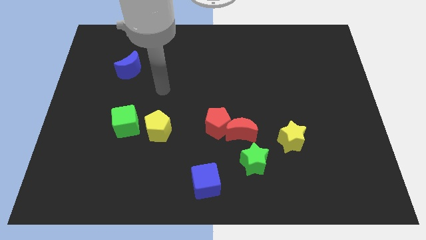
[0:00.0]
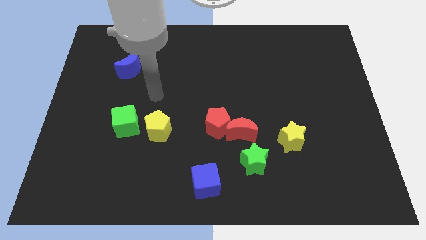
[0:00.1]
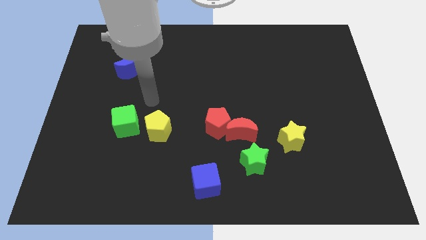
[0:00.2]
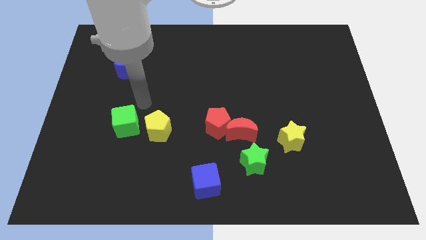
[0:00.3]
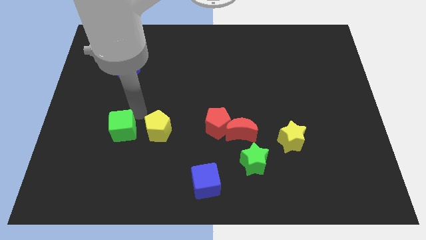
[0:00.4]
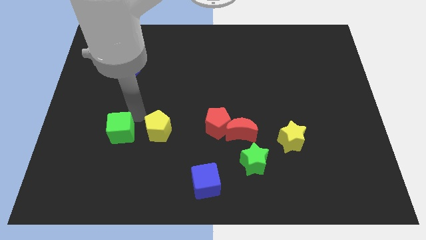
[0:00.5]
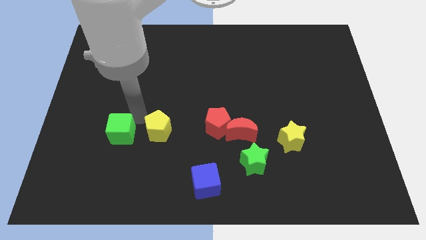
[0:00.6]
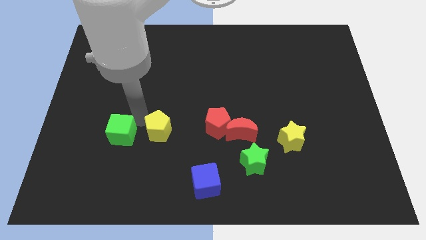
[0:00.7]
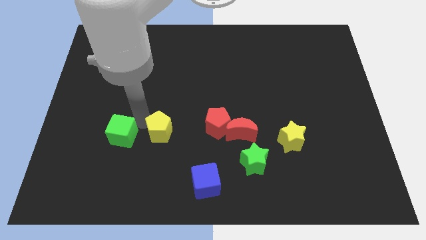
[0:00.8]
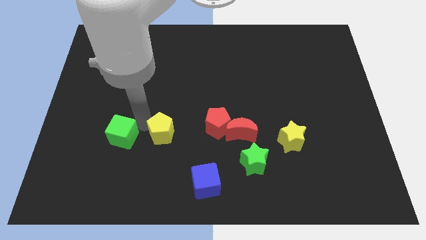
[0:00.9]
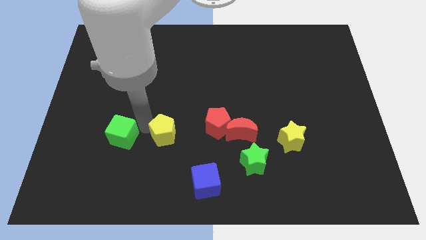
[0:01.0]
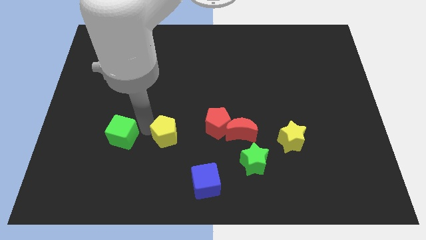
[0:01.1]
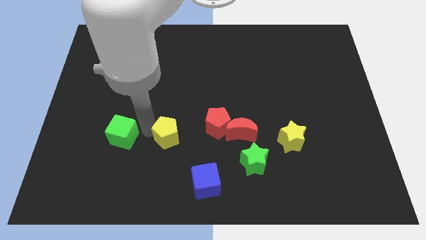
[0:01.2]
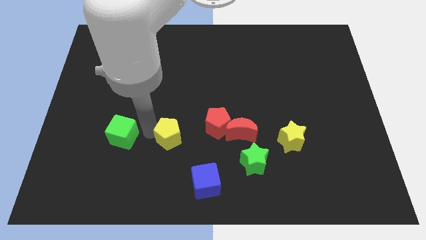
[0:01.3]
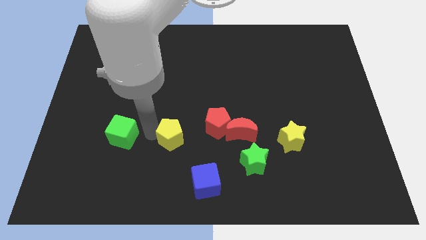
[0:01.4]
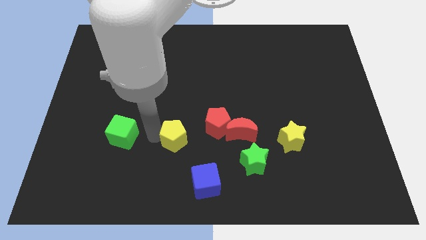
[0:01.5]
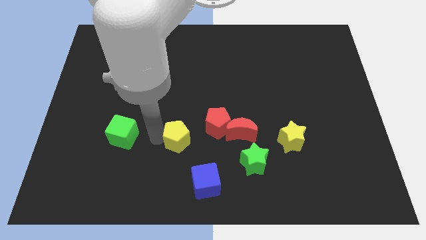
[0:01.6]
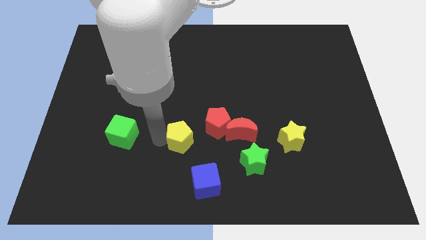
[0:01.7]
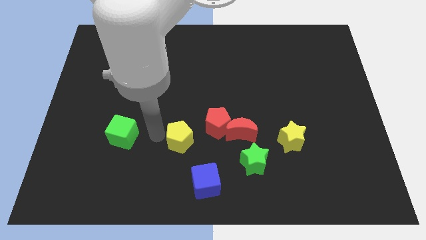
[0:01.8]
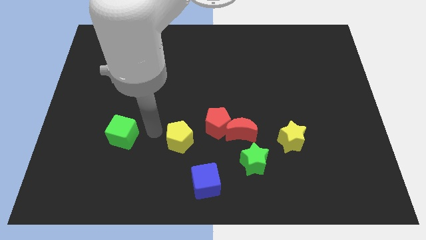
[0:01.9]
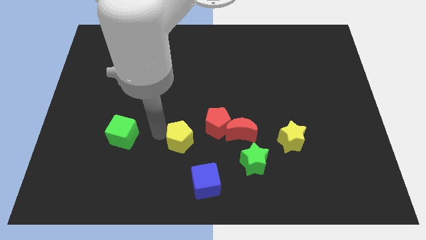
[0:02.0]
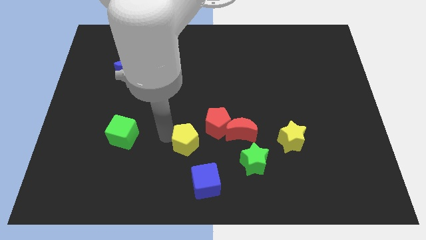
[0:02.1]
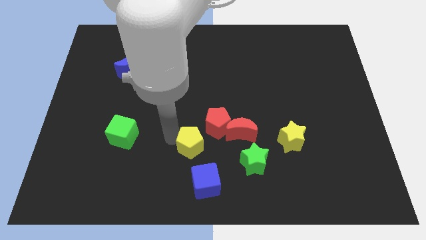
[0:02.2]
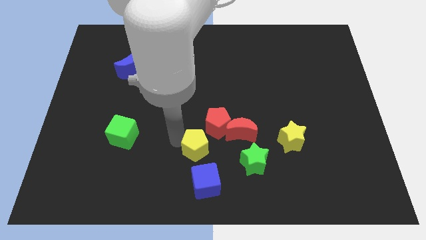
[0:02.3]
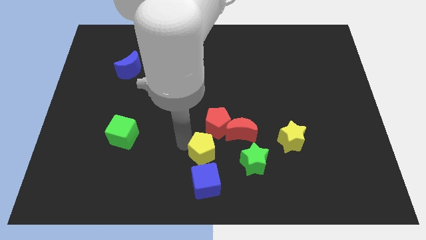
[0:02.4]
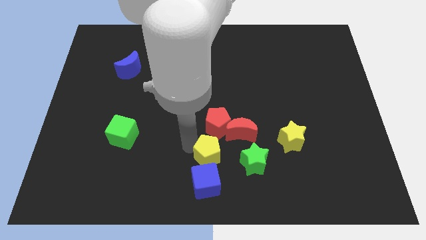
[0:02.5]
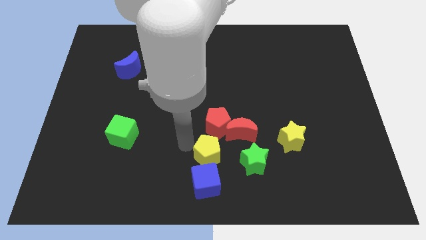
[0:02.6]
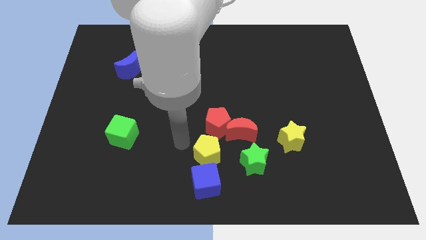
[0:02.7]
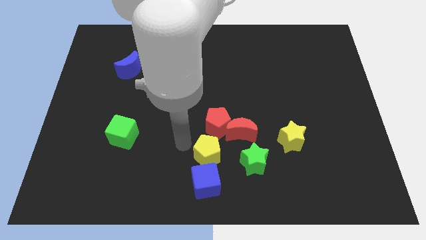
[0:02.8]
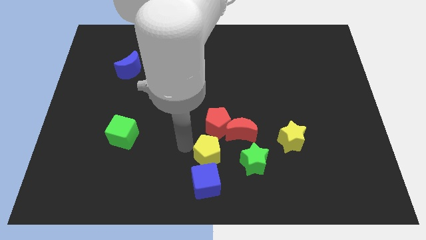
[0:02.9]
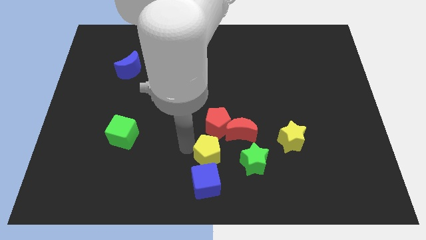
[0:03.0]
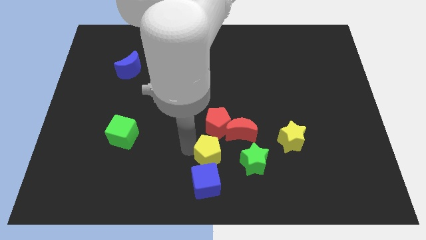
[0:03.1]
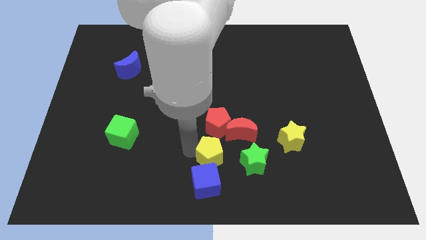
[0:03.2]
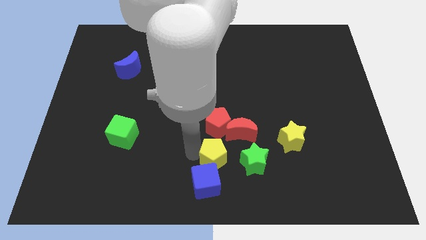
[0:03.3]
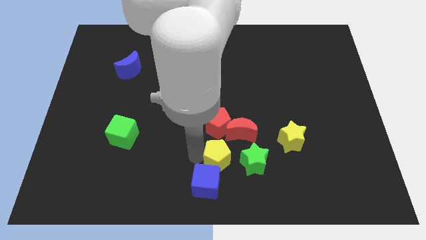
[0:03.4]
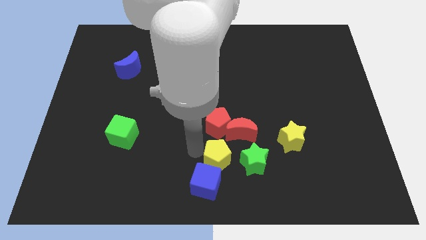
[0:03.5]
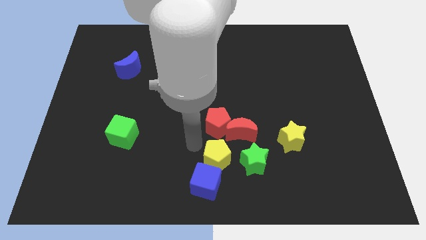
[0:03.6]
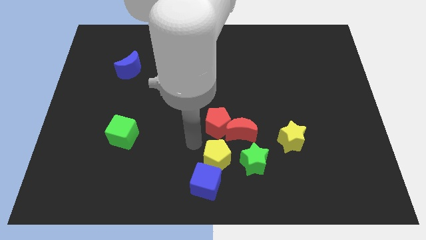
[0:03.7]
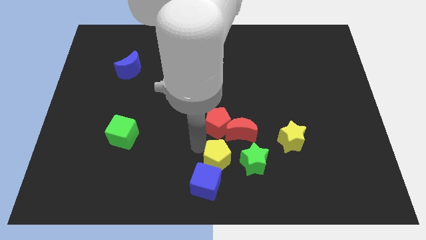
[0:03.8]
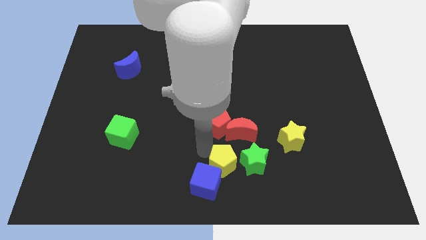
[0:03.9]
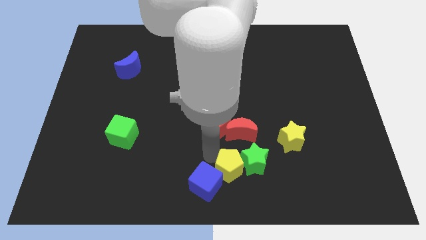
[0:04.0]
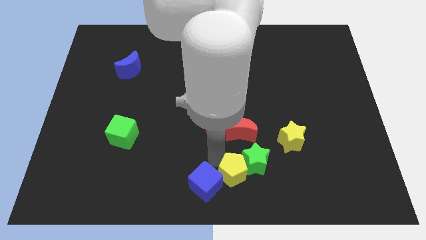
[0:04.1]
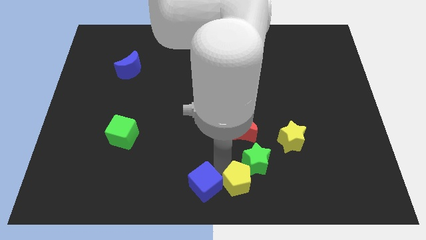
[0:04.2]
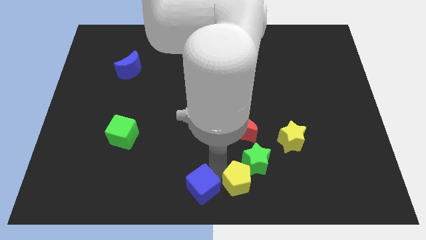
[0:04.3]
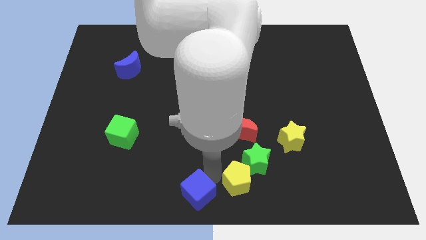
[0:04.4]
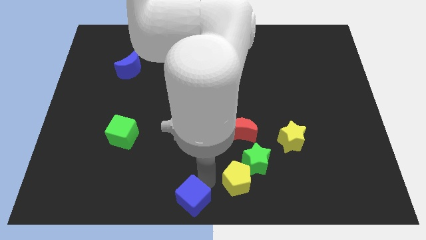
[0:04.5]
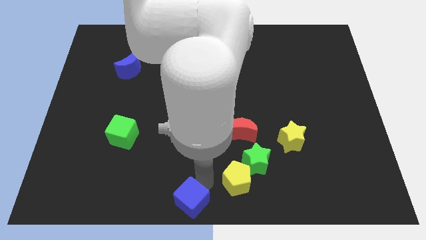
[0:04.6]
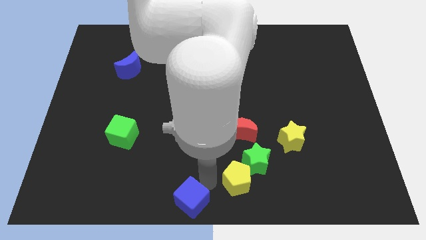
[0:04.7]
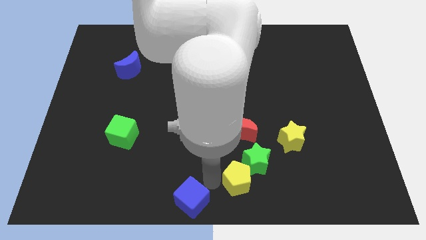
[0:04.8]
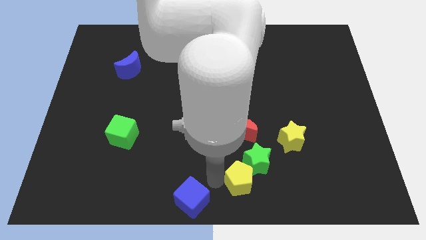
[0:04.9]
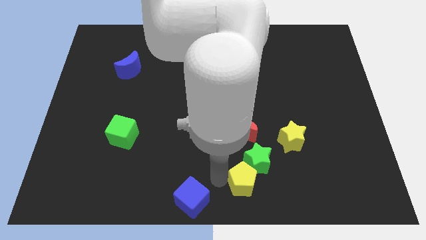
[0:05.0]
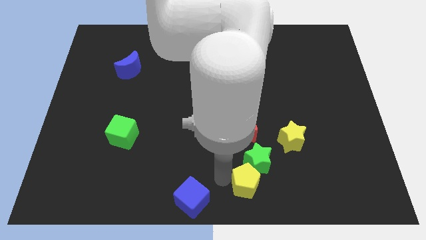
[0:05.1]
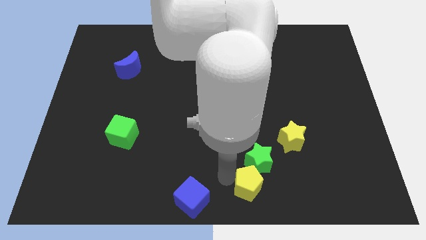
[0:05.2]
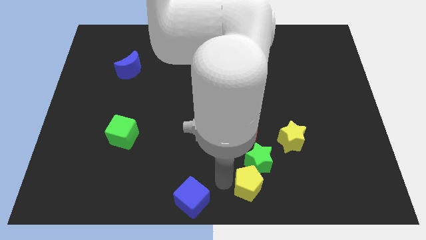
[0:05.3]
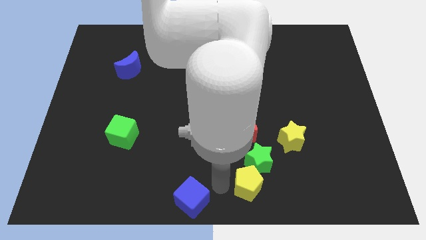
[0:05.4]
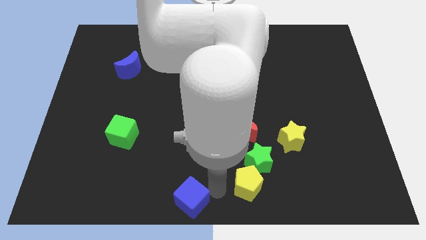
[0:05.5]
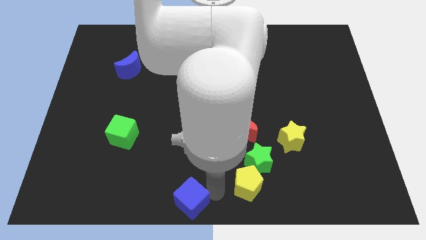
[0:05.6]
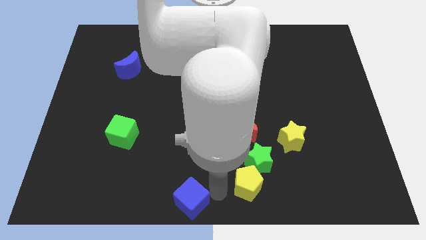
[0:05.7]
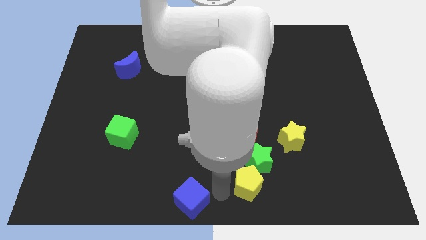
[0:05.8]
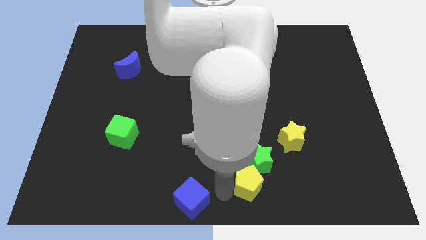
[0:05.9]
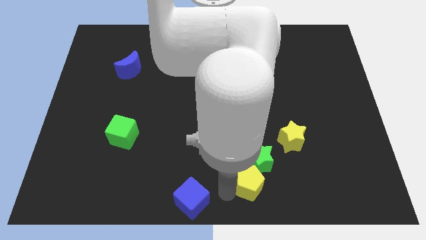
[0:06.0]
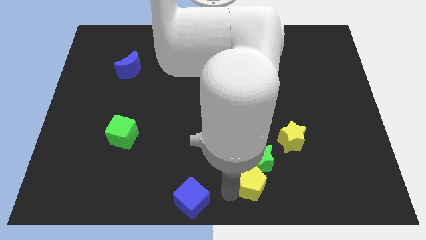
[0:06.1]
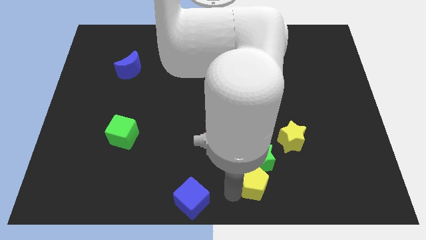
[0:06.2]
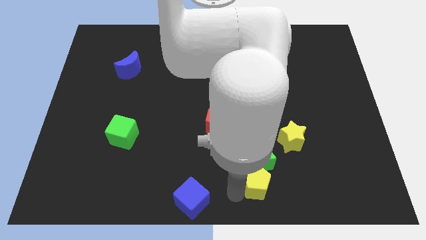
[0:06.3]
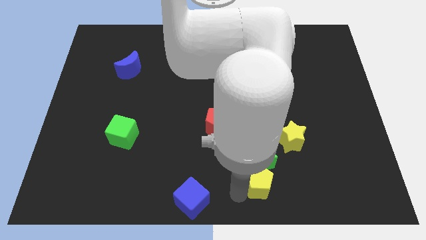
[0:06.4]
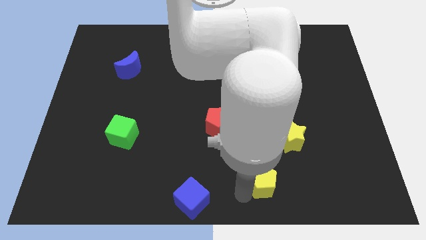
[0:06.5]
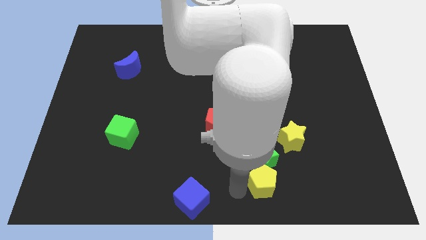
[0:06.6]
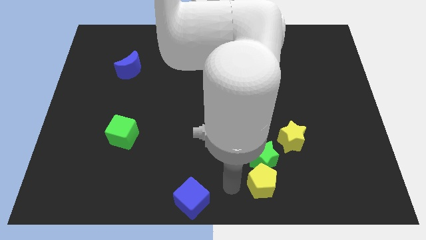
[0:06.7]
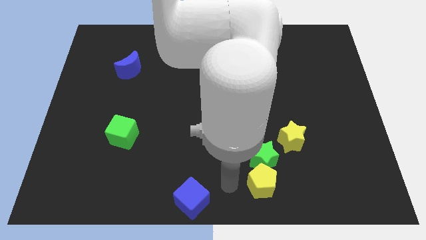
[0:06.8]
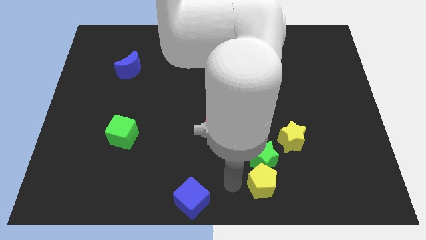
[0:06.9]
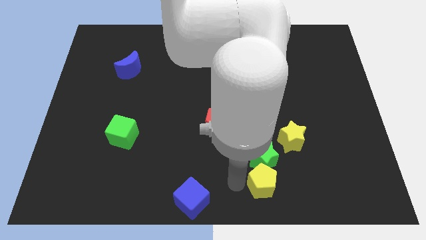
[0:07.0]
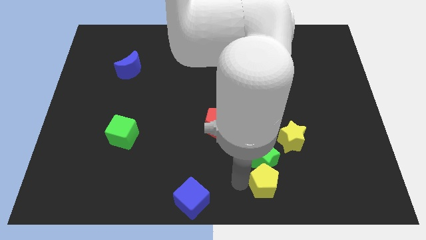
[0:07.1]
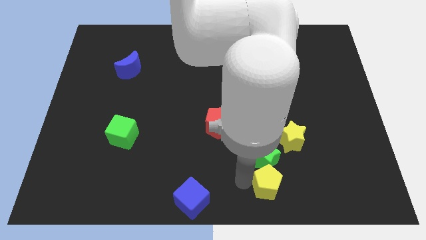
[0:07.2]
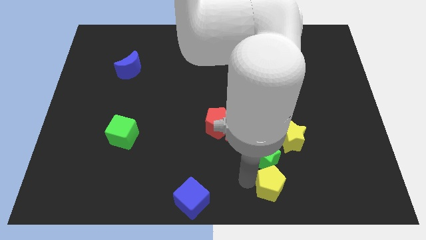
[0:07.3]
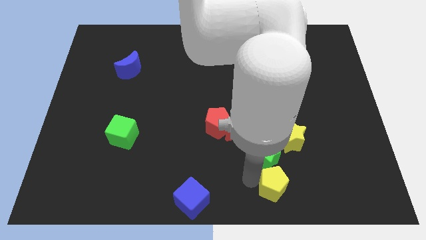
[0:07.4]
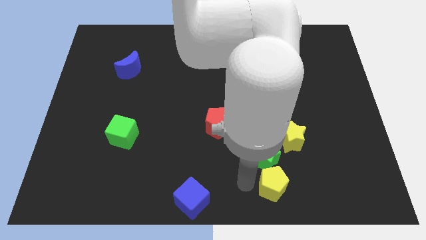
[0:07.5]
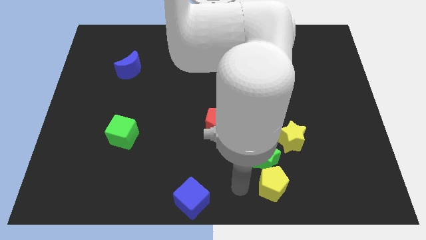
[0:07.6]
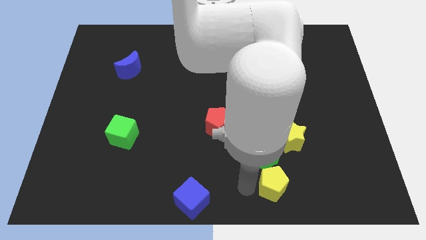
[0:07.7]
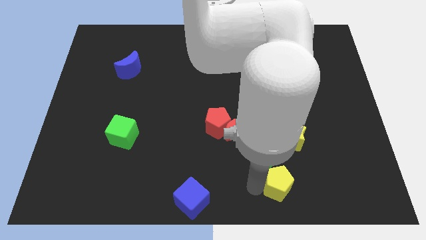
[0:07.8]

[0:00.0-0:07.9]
put the yellow pentagon to the bottom side of the yellow star
